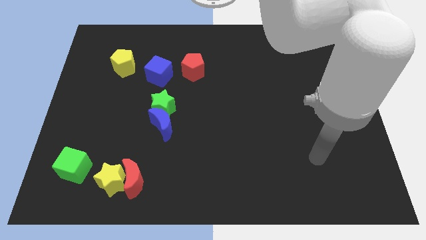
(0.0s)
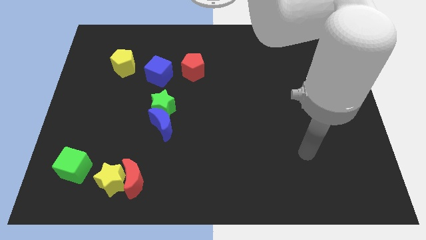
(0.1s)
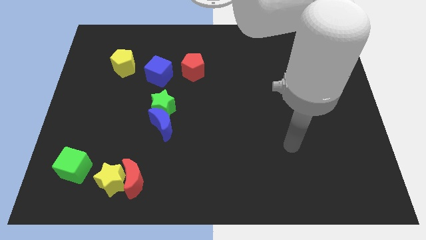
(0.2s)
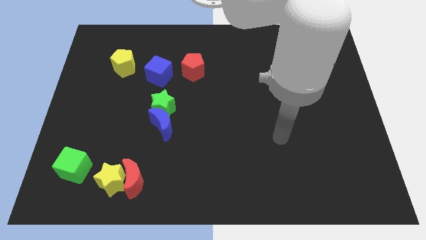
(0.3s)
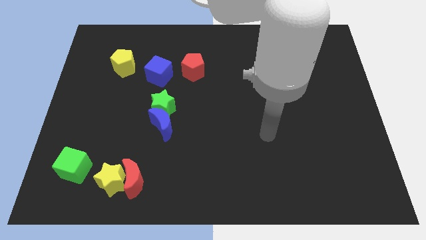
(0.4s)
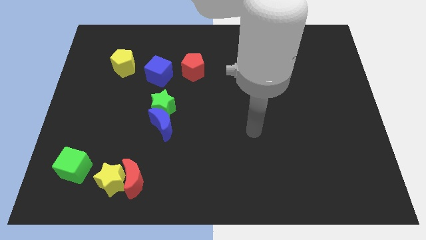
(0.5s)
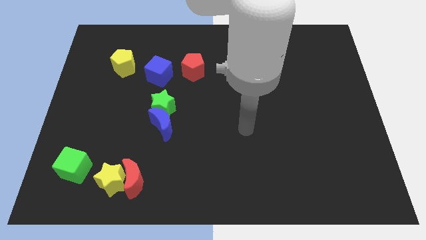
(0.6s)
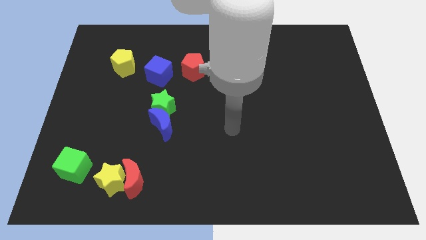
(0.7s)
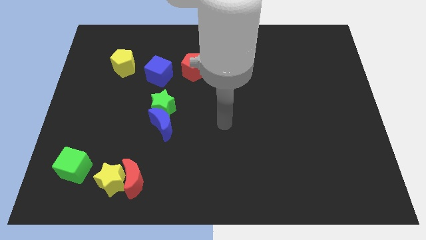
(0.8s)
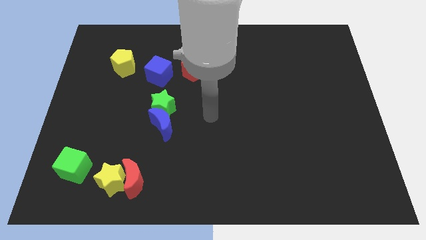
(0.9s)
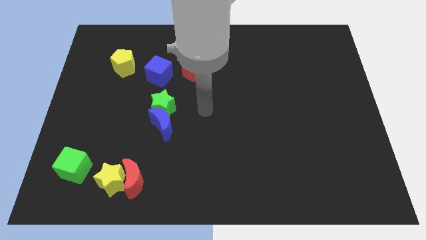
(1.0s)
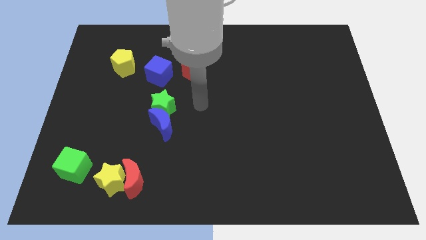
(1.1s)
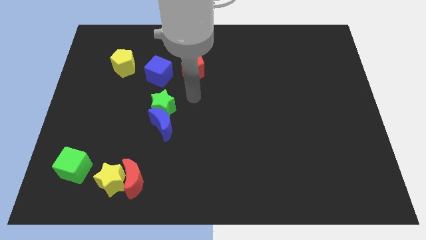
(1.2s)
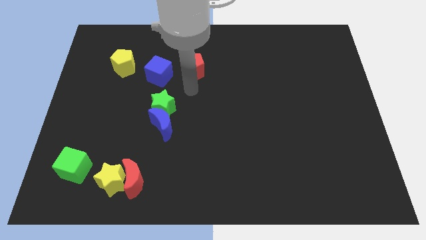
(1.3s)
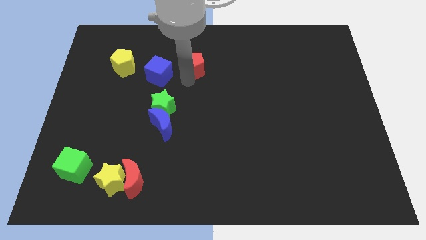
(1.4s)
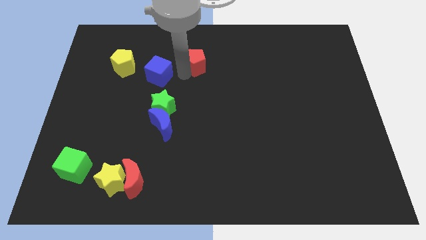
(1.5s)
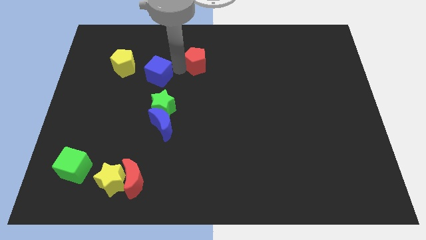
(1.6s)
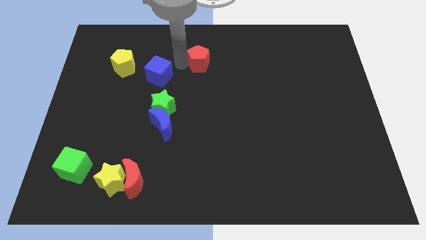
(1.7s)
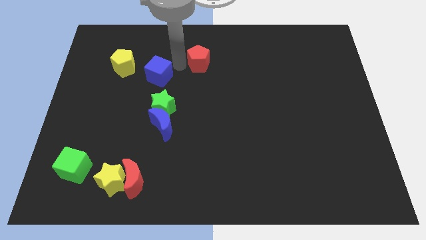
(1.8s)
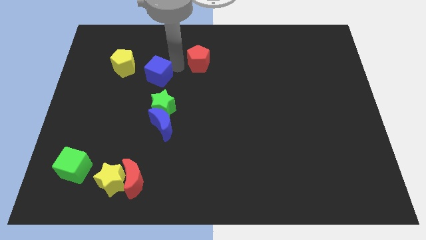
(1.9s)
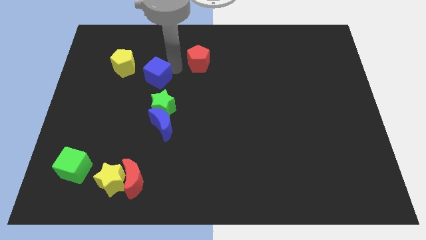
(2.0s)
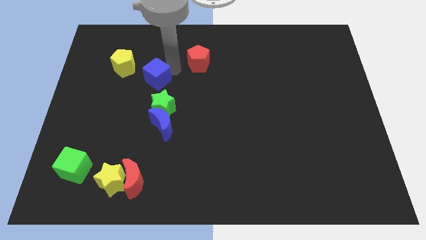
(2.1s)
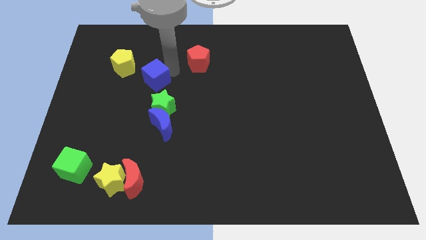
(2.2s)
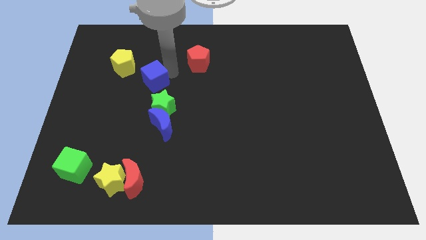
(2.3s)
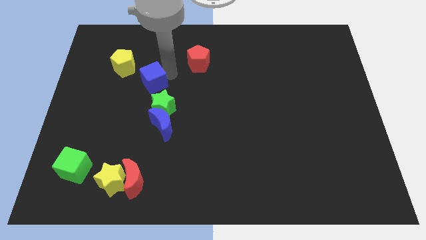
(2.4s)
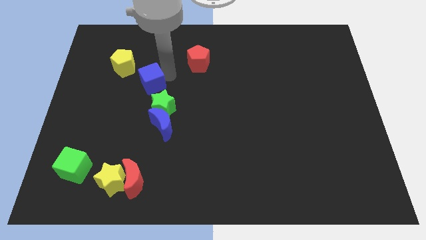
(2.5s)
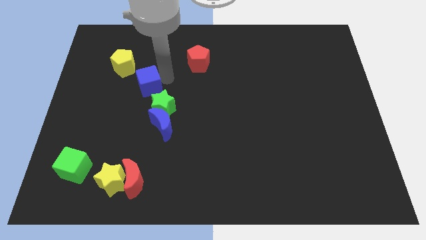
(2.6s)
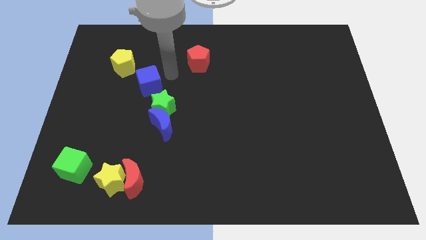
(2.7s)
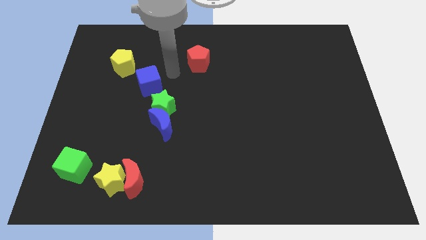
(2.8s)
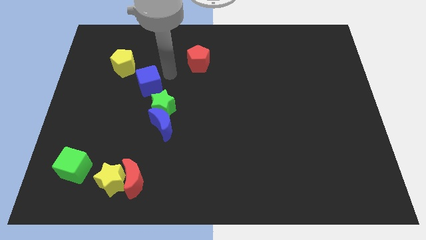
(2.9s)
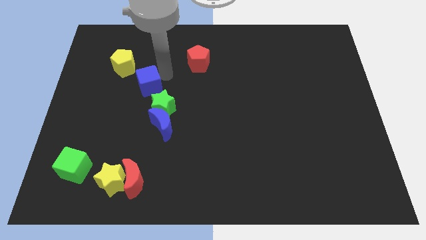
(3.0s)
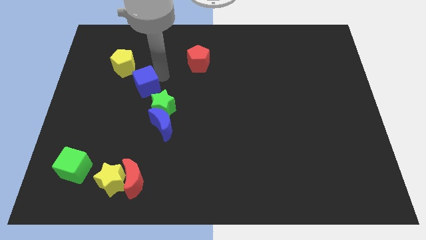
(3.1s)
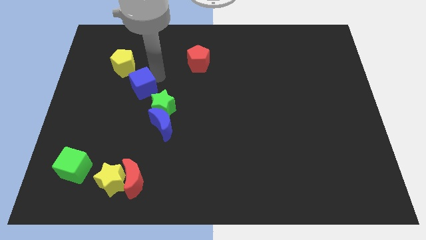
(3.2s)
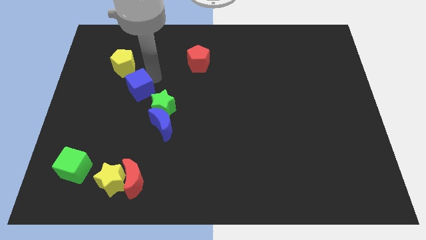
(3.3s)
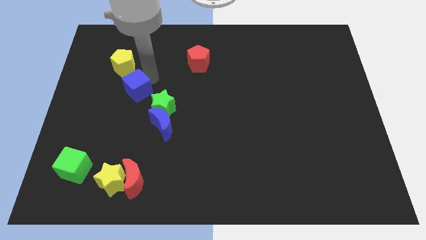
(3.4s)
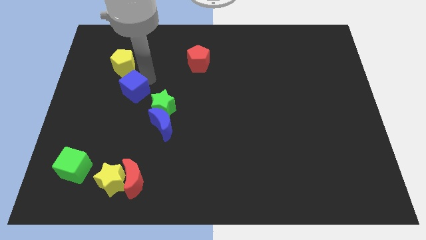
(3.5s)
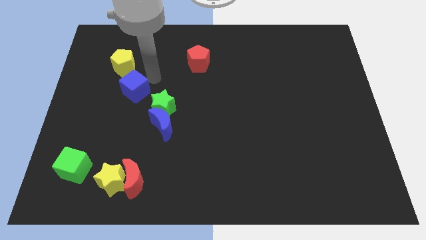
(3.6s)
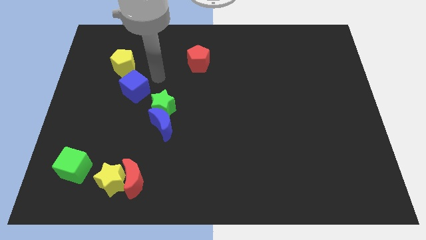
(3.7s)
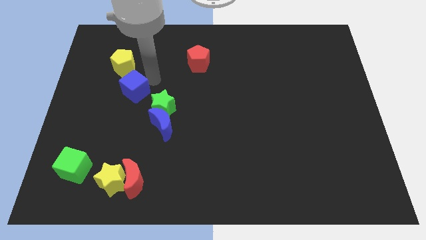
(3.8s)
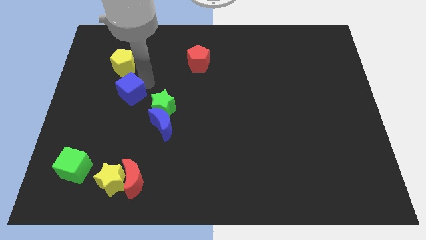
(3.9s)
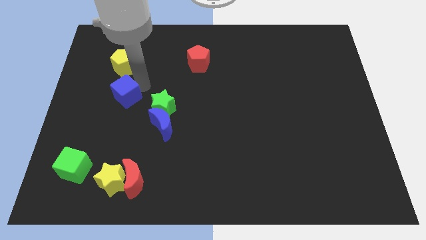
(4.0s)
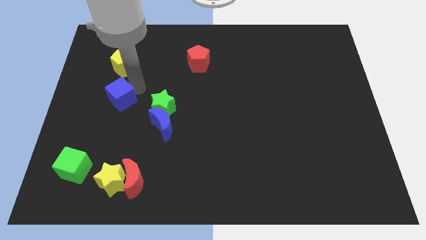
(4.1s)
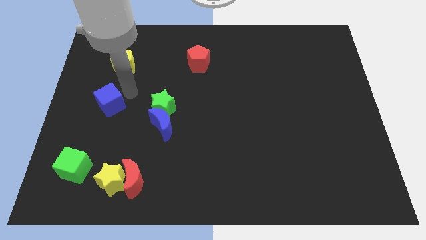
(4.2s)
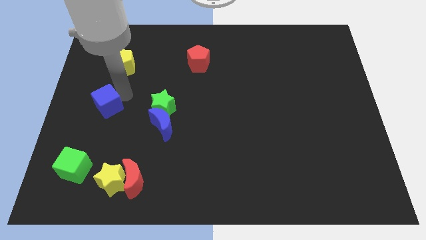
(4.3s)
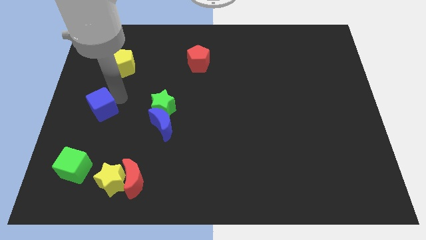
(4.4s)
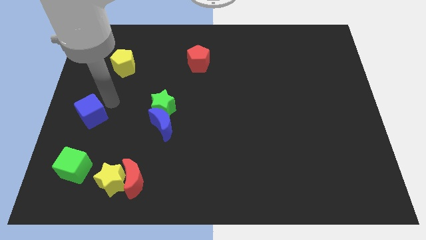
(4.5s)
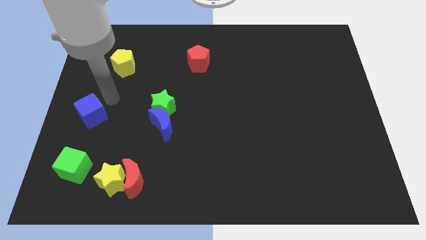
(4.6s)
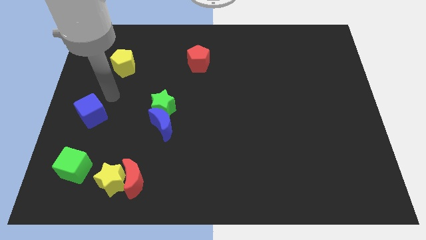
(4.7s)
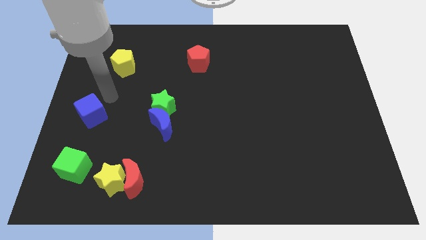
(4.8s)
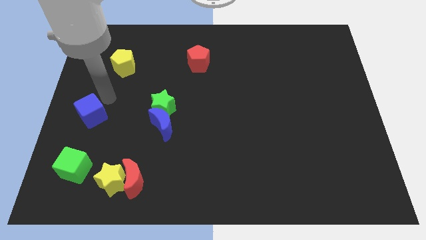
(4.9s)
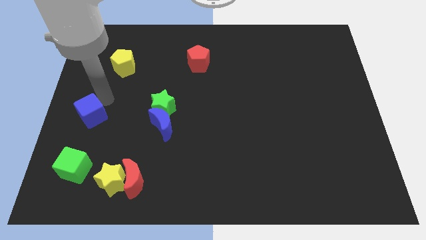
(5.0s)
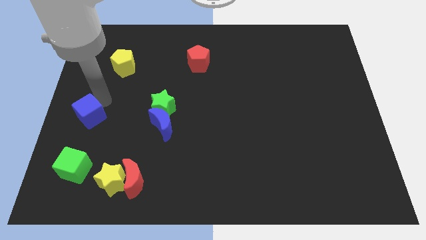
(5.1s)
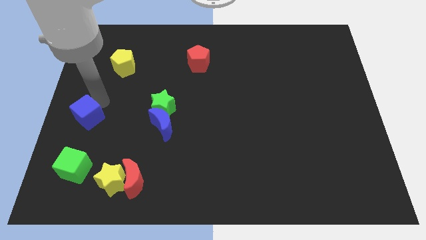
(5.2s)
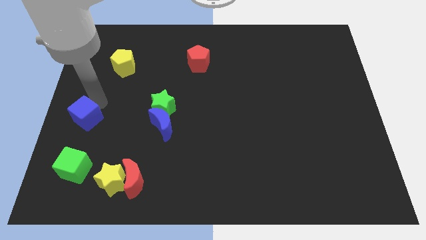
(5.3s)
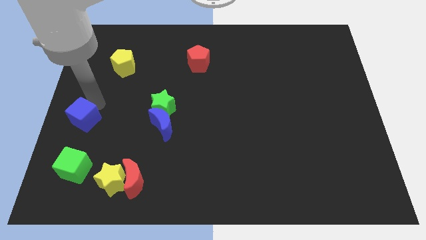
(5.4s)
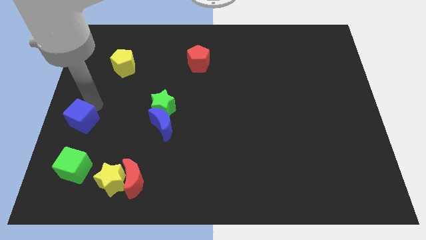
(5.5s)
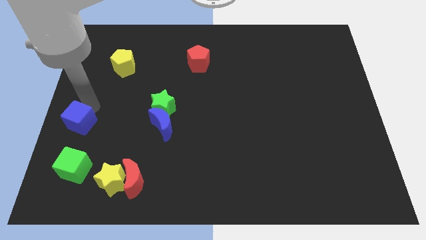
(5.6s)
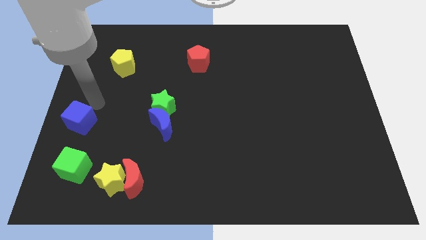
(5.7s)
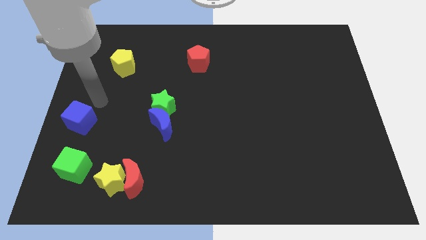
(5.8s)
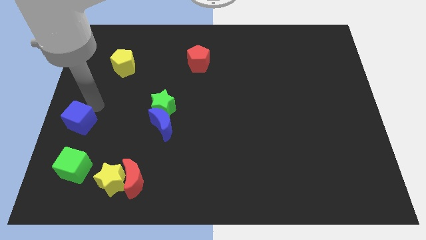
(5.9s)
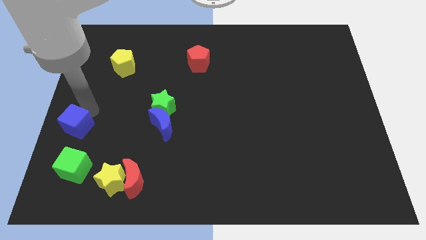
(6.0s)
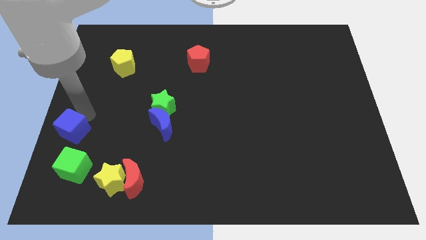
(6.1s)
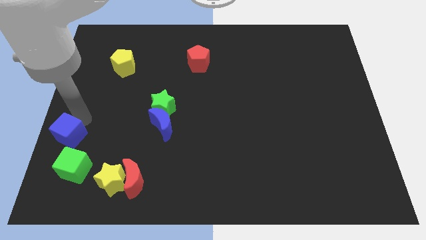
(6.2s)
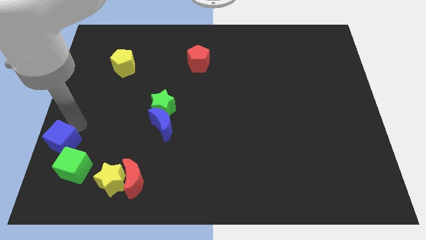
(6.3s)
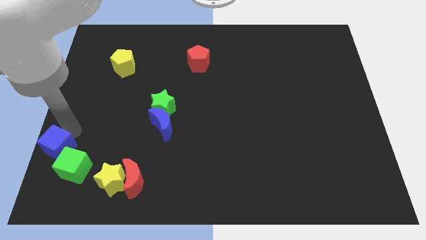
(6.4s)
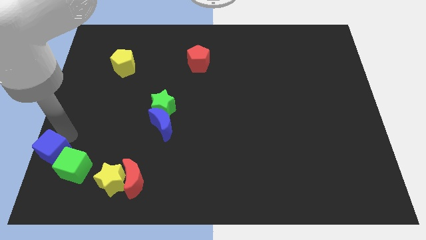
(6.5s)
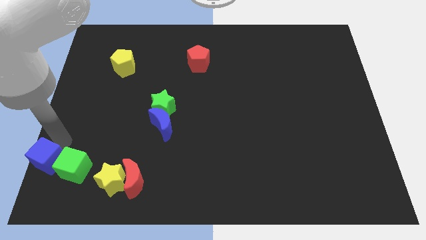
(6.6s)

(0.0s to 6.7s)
push the blue cube to the bottom left of the board
